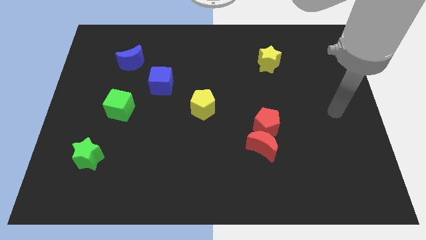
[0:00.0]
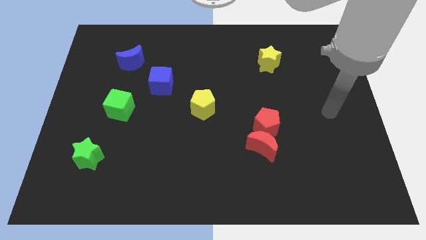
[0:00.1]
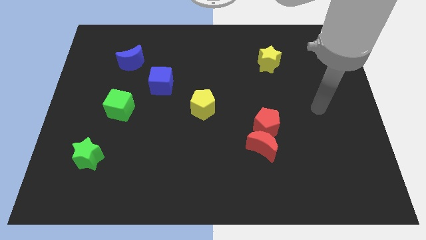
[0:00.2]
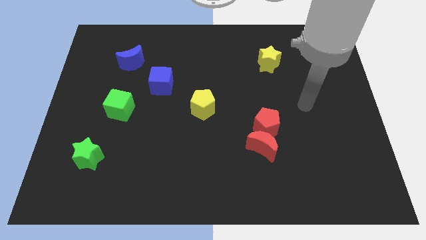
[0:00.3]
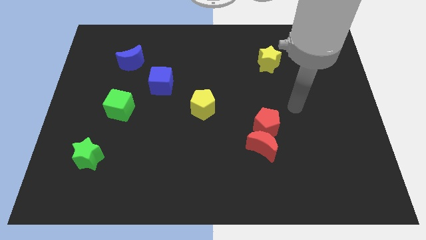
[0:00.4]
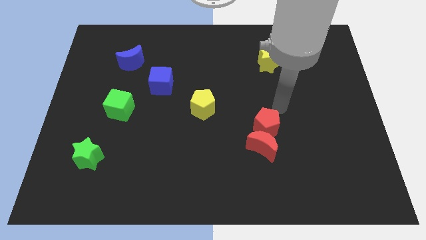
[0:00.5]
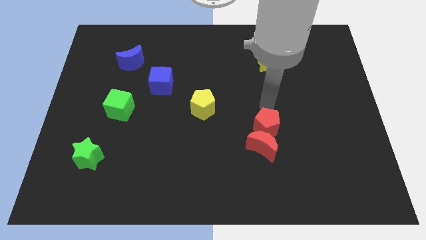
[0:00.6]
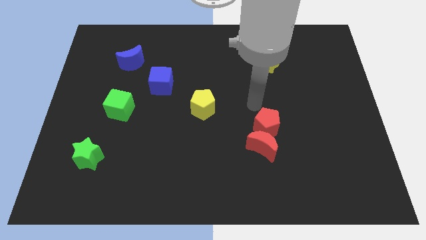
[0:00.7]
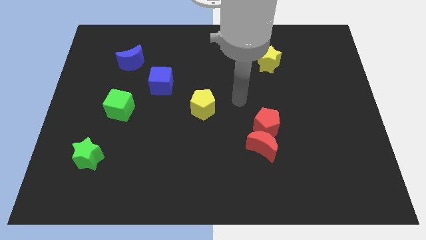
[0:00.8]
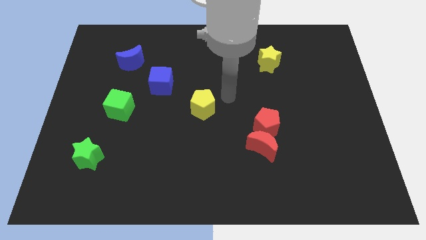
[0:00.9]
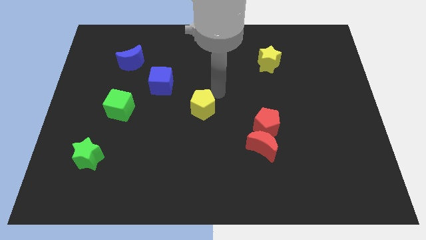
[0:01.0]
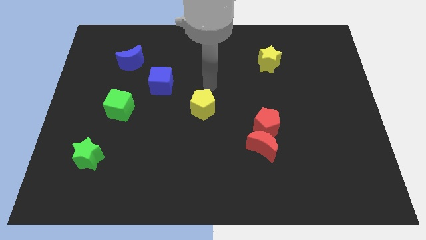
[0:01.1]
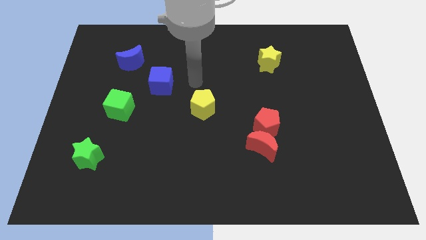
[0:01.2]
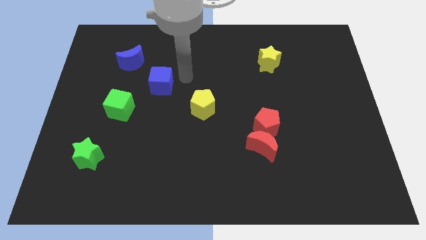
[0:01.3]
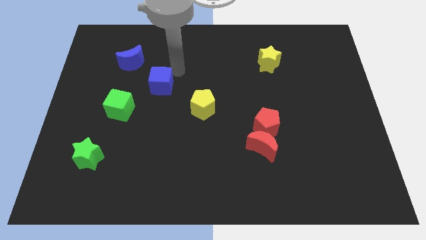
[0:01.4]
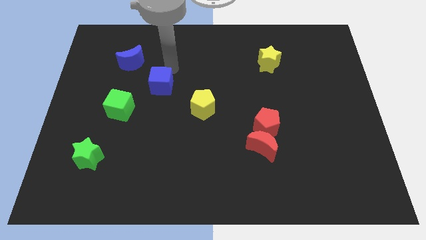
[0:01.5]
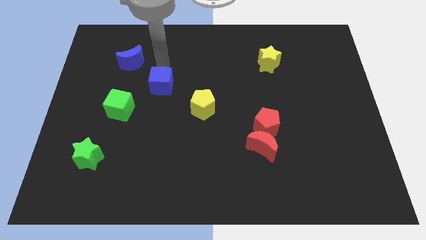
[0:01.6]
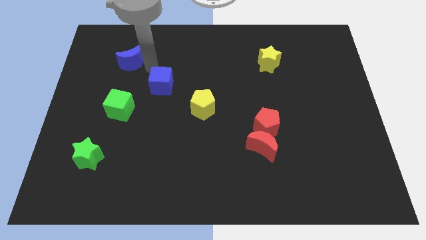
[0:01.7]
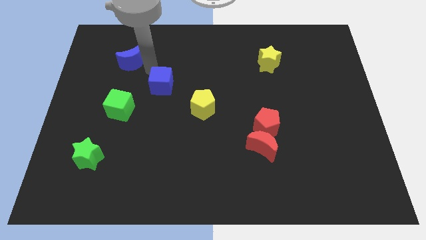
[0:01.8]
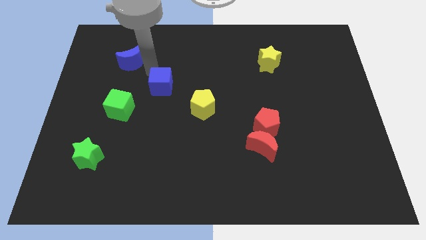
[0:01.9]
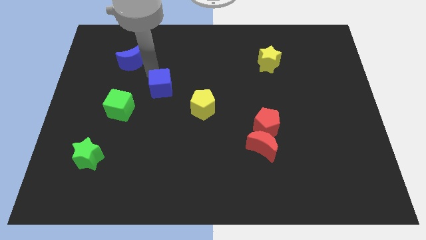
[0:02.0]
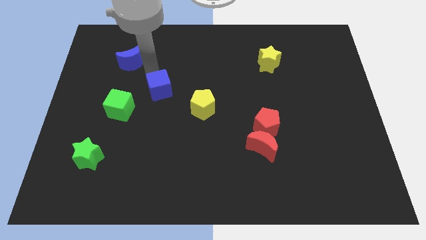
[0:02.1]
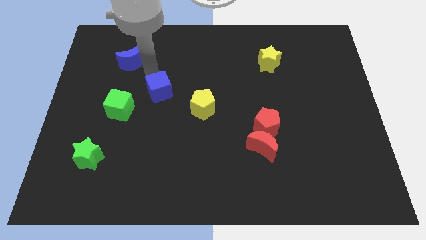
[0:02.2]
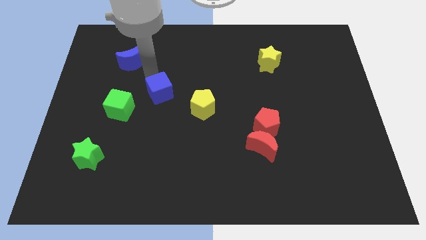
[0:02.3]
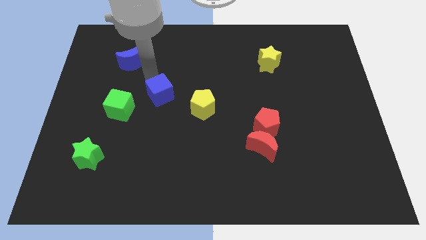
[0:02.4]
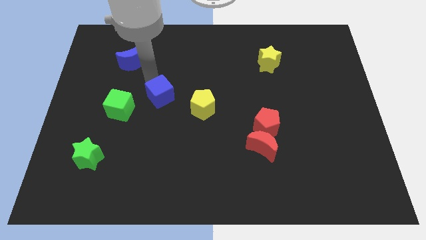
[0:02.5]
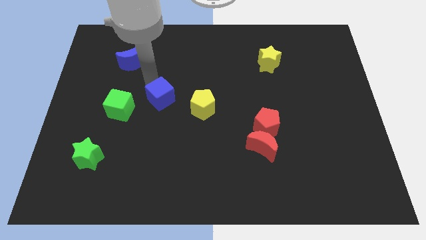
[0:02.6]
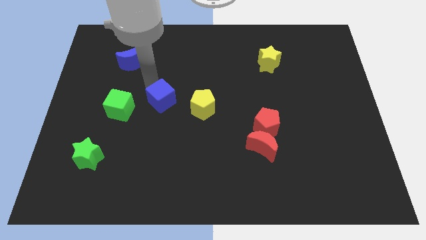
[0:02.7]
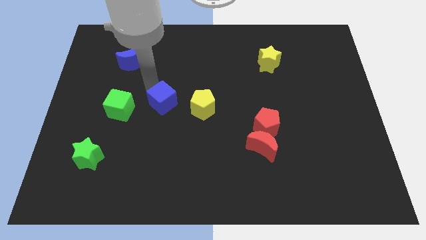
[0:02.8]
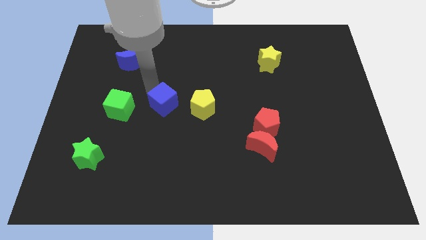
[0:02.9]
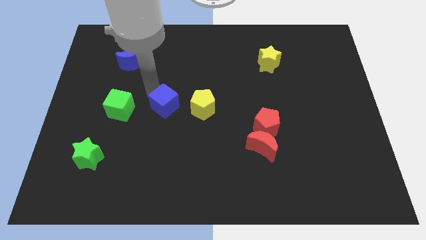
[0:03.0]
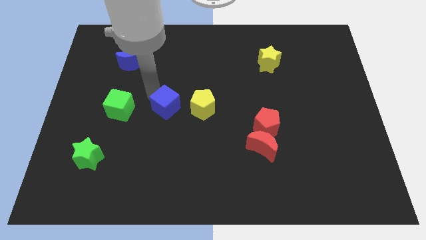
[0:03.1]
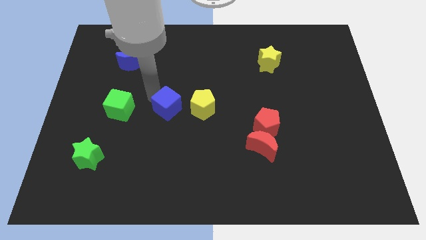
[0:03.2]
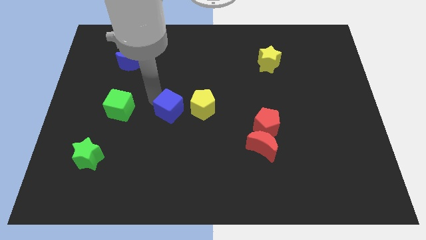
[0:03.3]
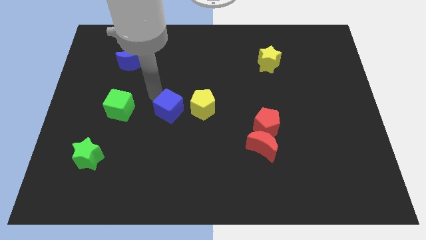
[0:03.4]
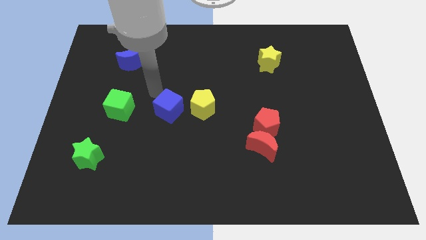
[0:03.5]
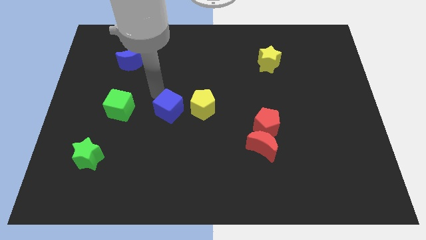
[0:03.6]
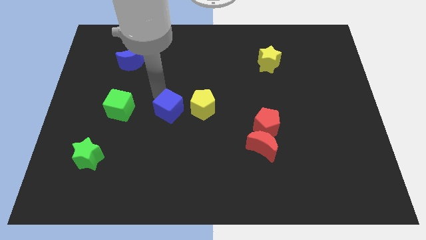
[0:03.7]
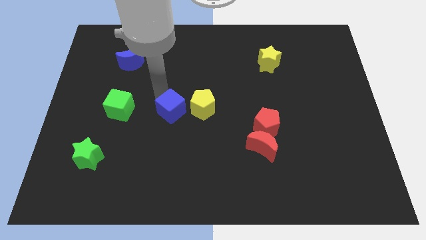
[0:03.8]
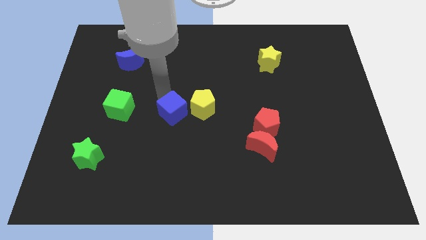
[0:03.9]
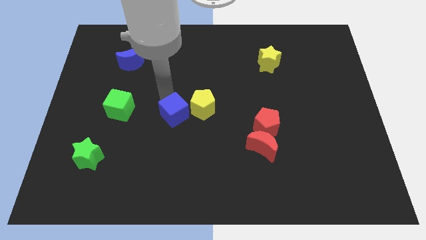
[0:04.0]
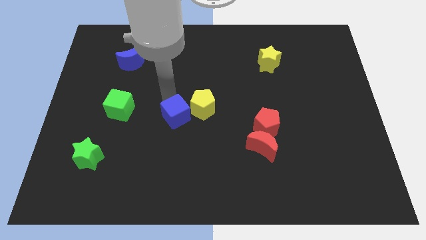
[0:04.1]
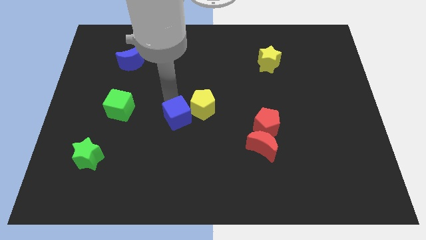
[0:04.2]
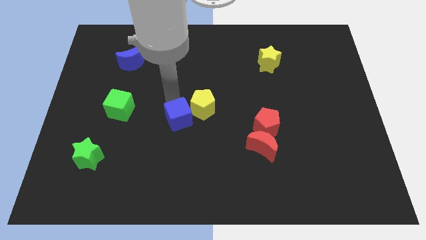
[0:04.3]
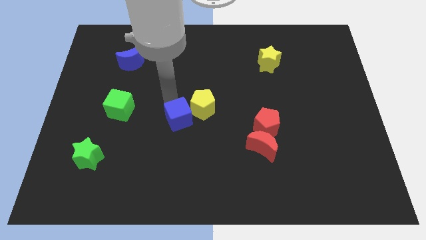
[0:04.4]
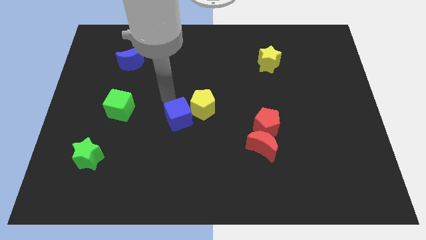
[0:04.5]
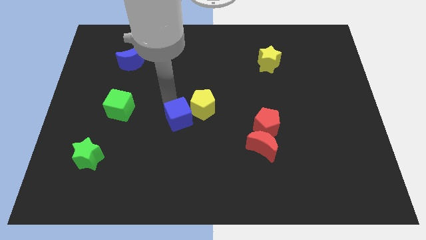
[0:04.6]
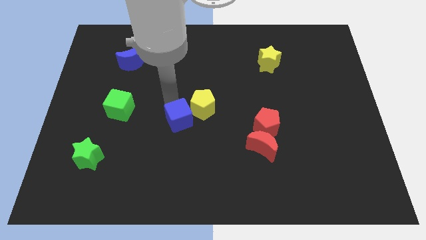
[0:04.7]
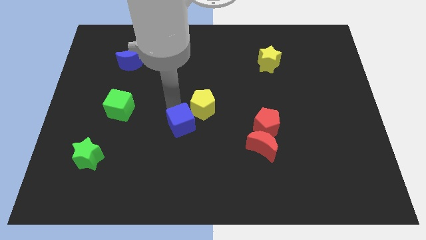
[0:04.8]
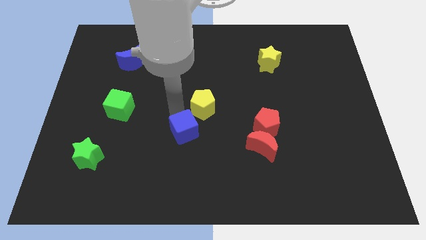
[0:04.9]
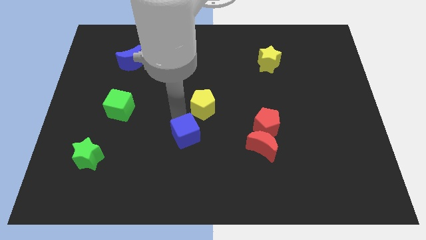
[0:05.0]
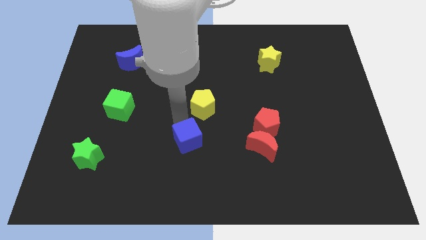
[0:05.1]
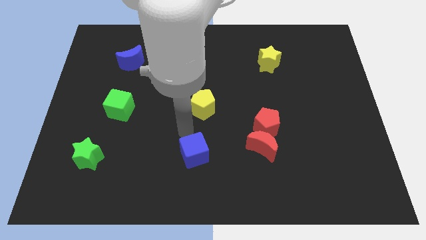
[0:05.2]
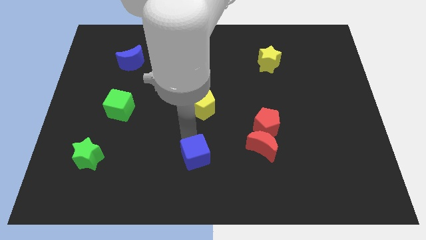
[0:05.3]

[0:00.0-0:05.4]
put the blue cube to the bottom
